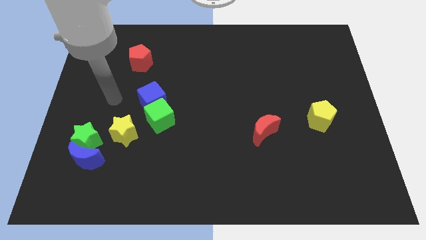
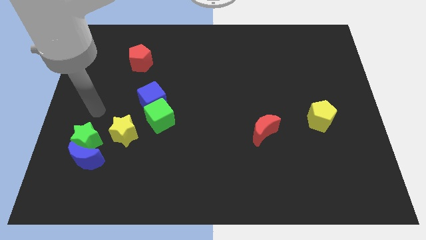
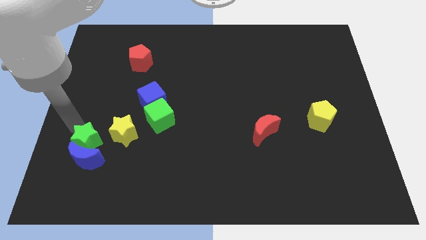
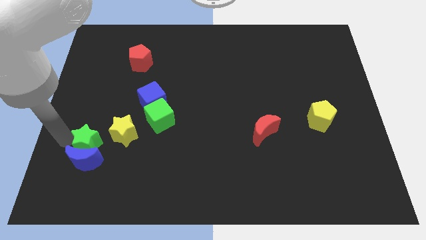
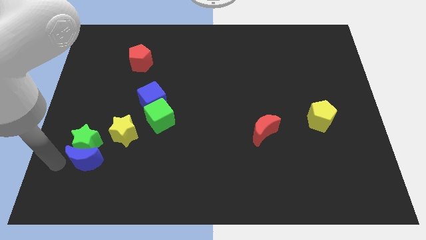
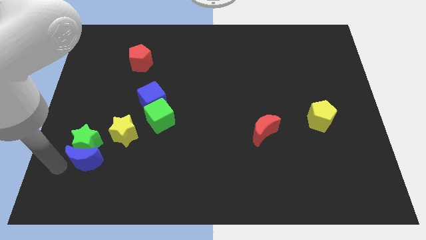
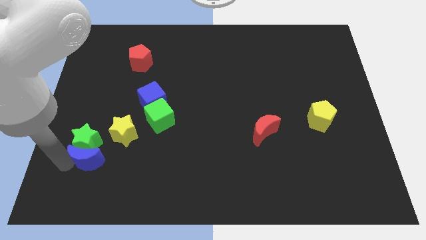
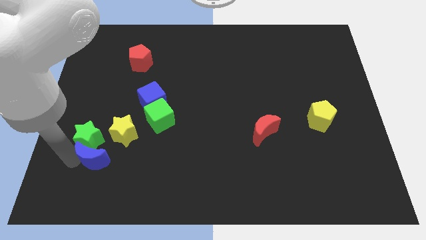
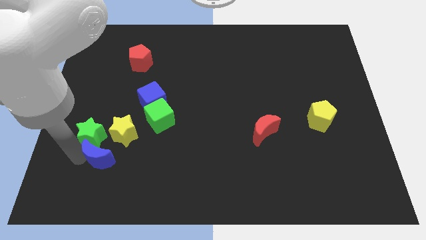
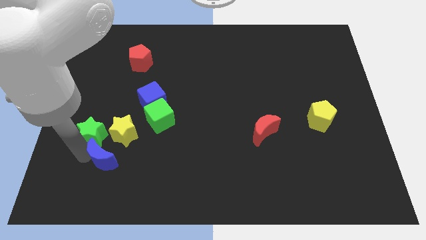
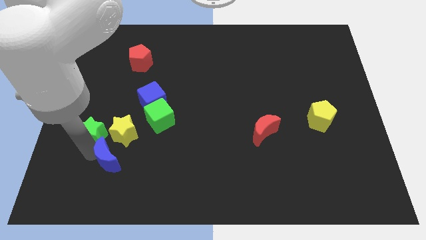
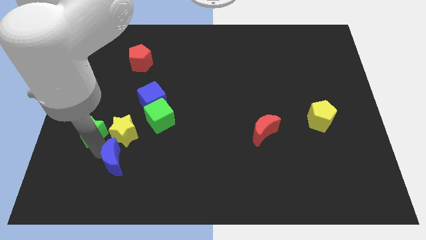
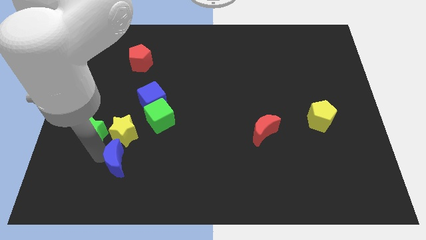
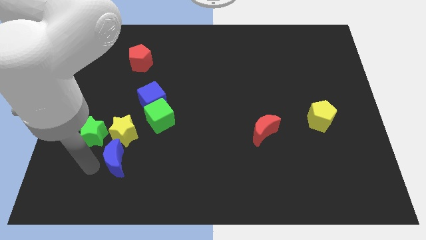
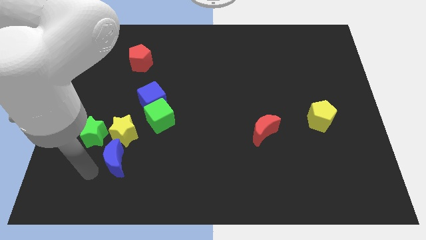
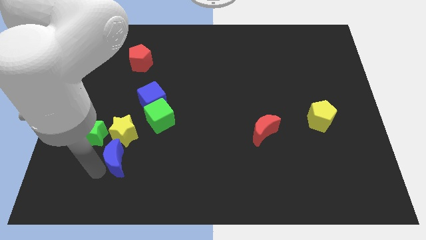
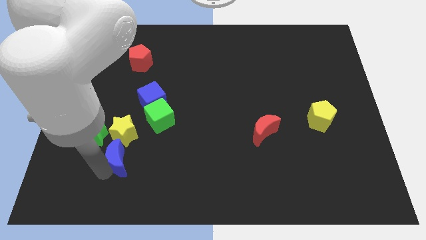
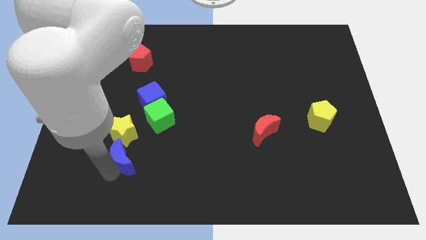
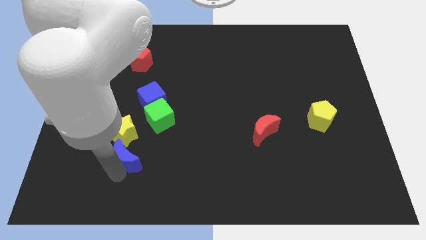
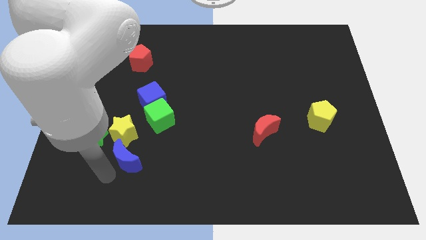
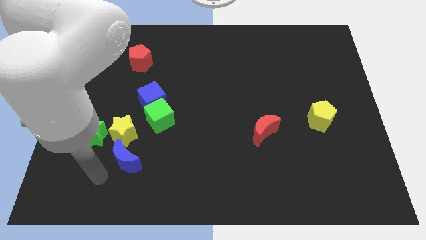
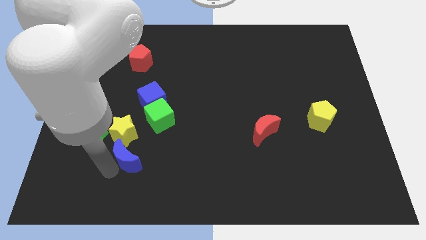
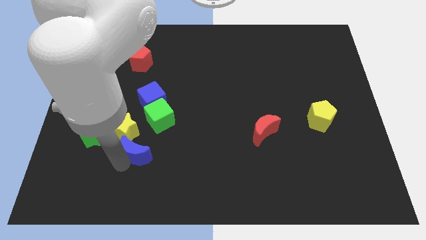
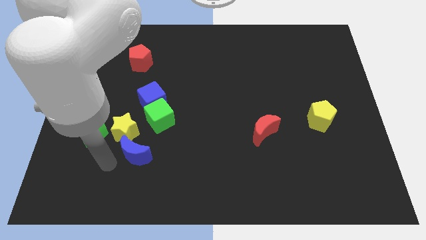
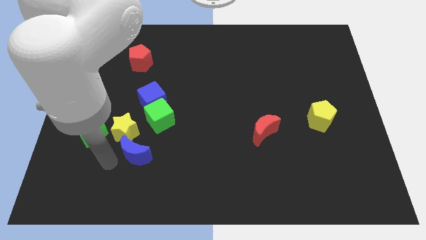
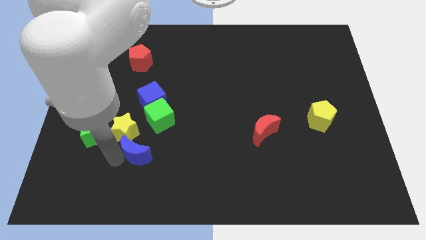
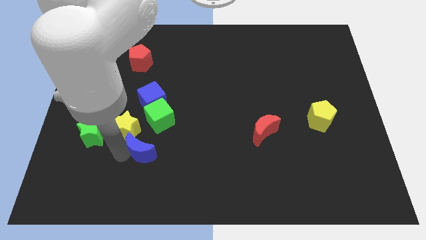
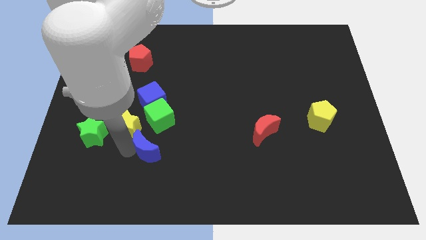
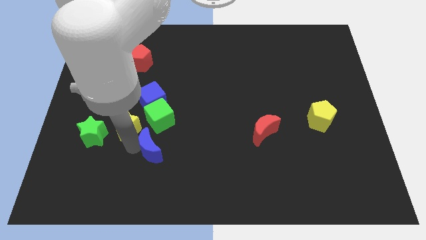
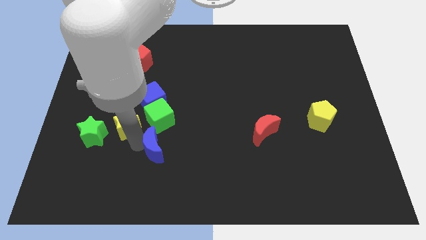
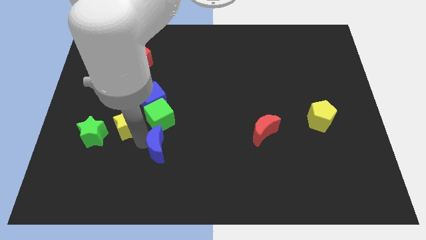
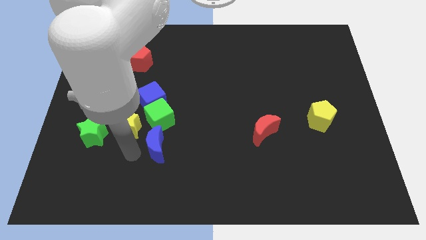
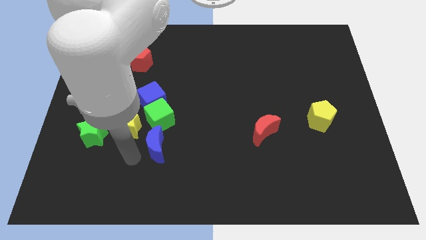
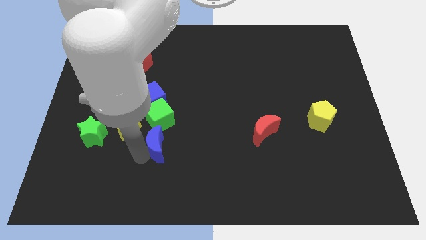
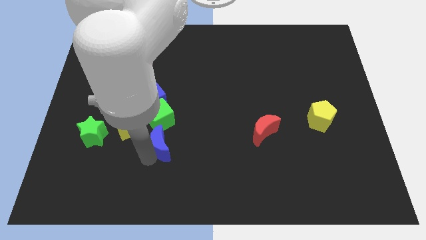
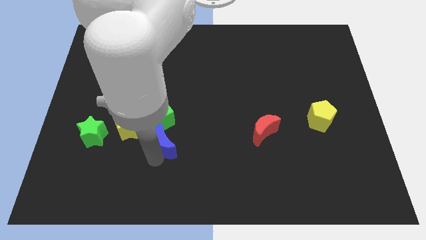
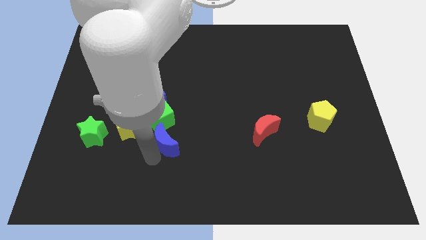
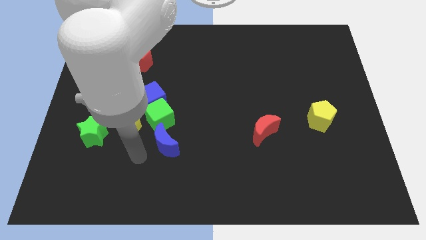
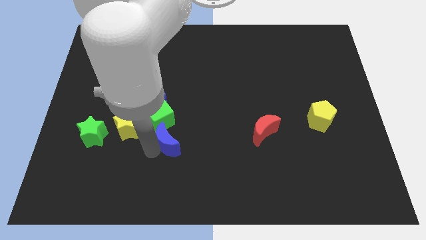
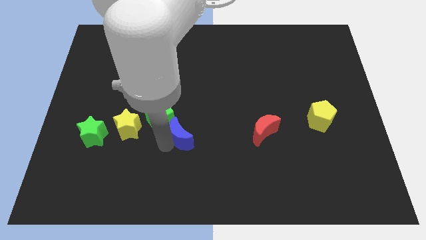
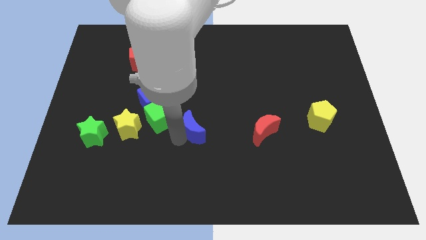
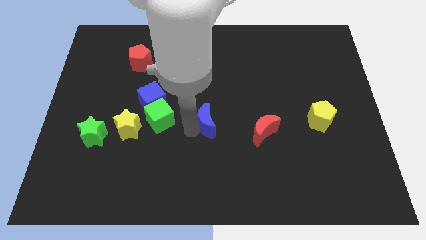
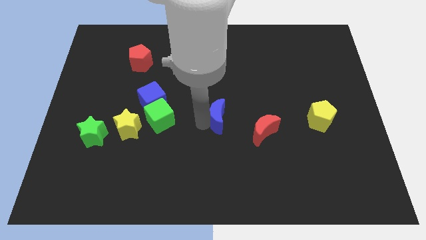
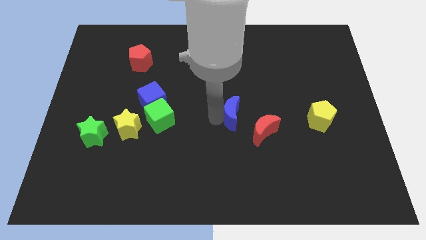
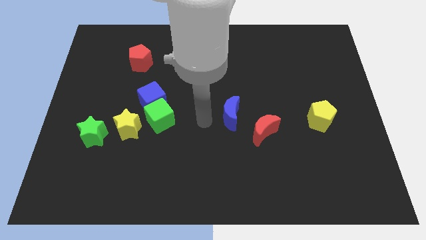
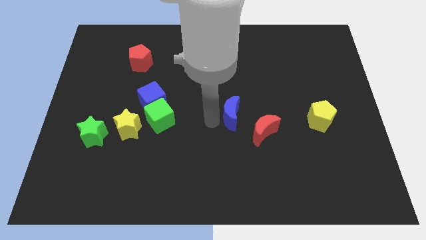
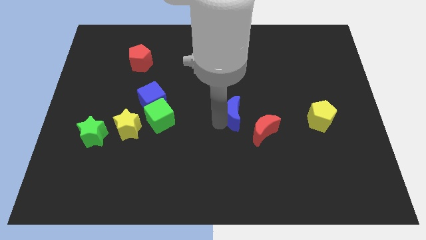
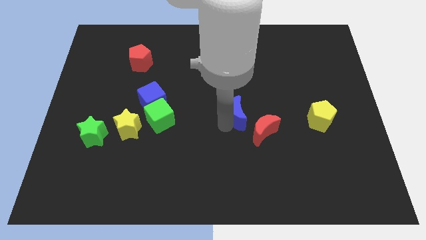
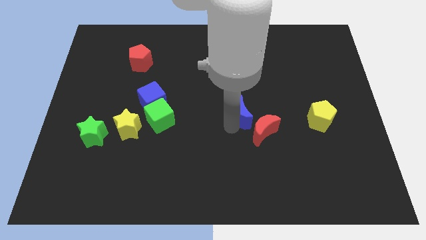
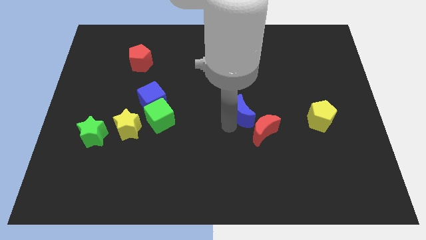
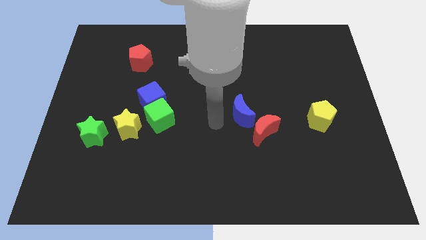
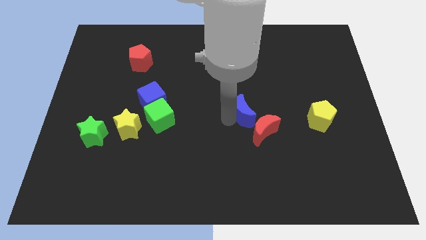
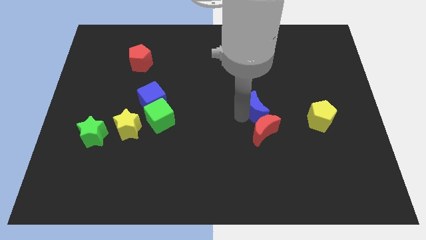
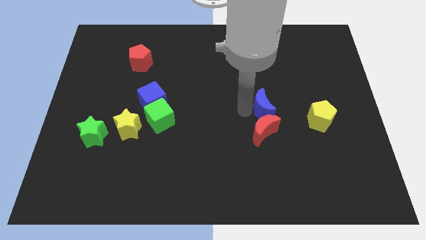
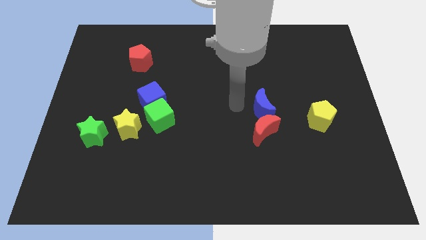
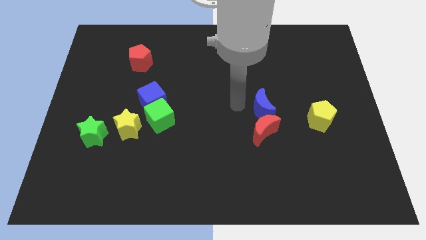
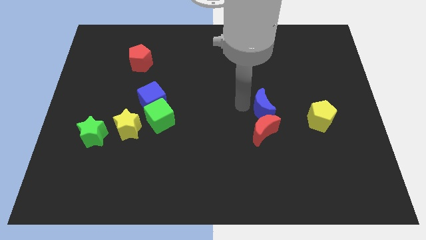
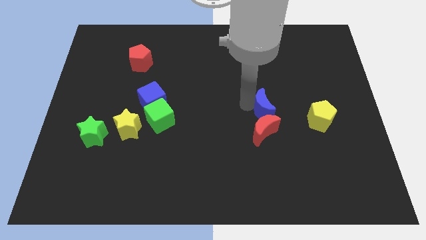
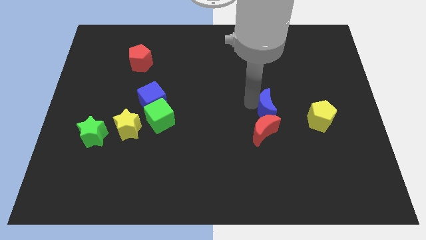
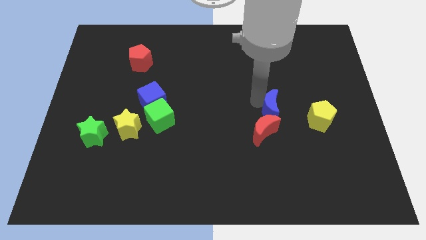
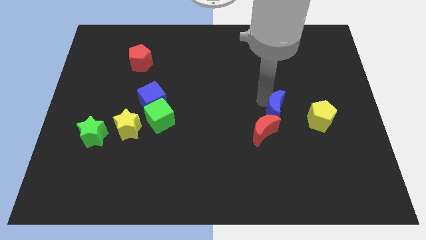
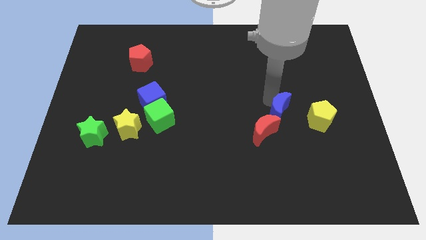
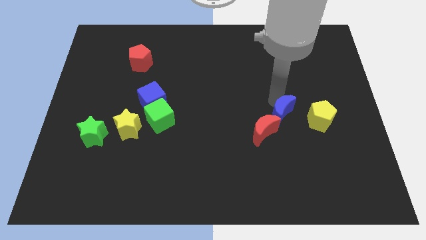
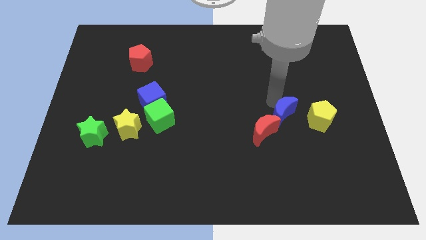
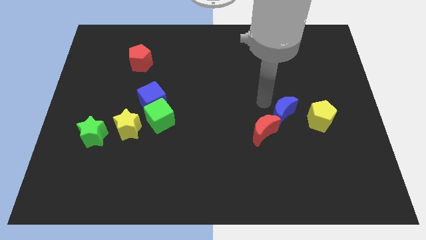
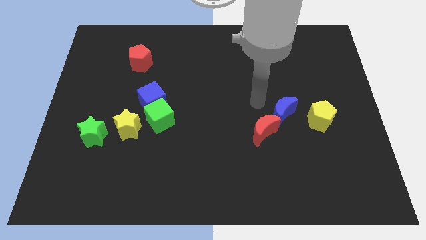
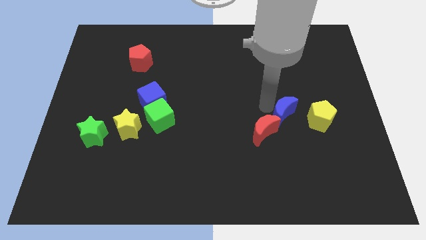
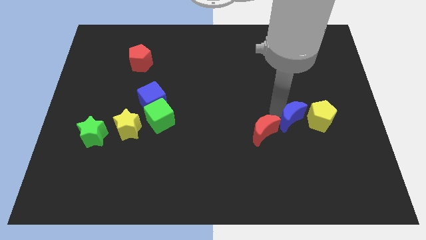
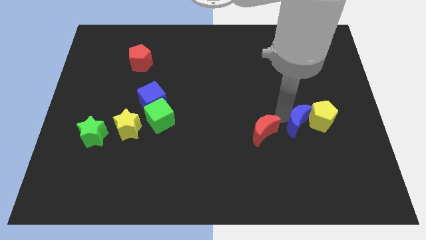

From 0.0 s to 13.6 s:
move the blue moon next to the yellow pentagon
